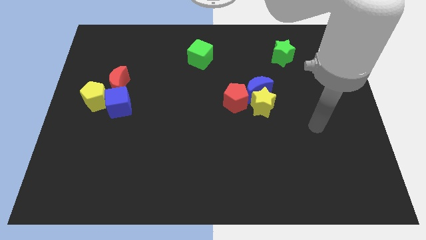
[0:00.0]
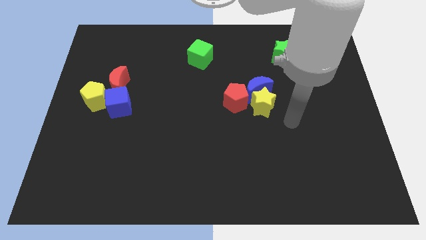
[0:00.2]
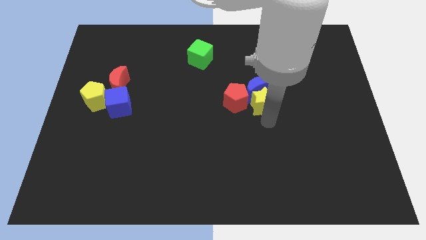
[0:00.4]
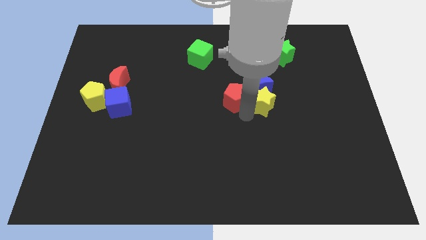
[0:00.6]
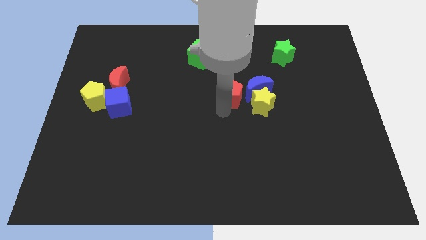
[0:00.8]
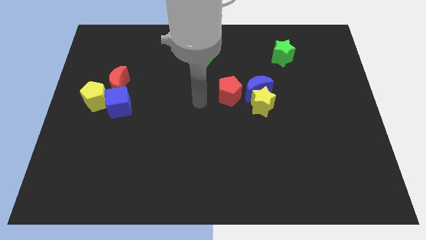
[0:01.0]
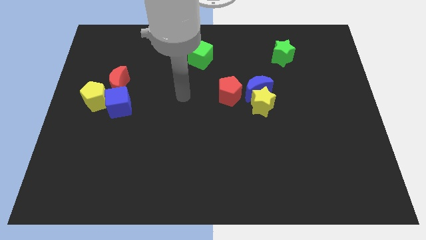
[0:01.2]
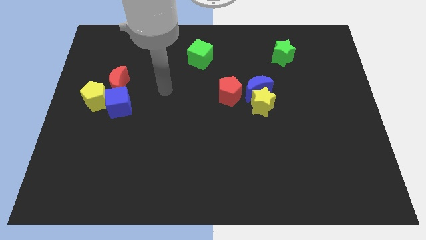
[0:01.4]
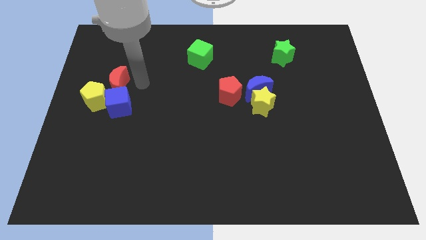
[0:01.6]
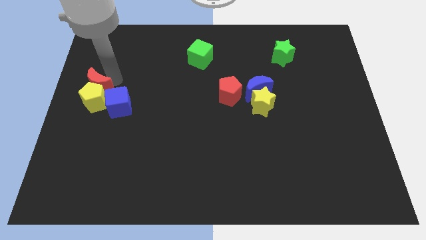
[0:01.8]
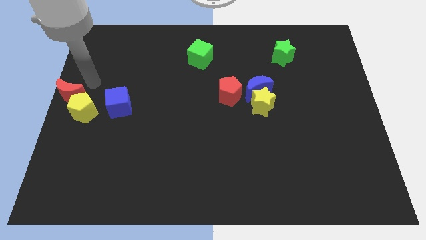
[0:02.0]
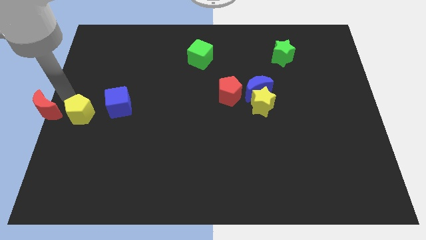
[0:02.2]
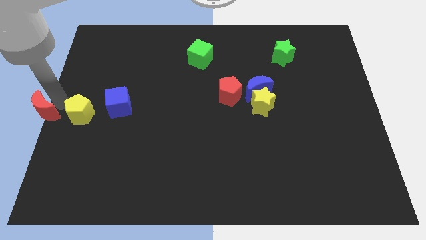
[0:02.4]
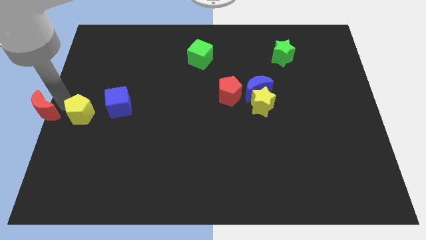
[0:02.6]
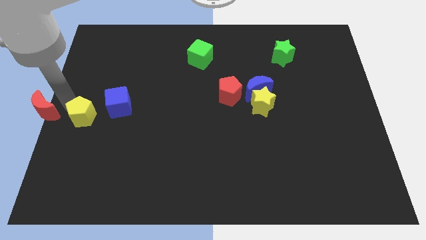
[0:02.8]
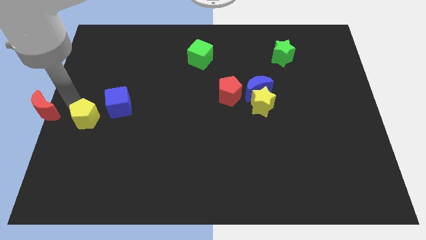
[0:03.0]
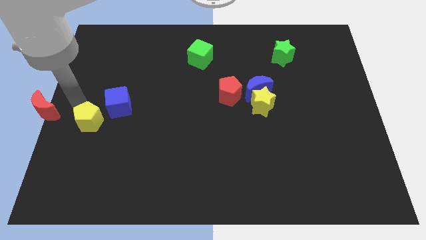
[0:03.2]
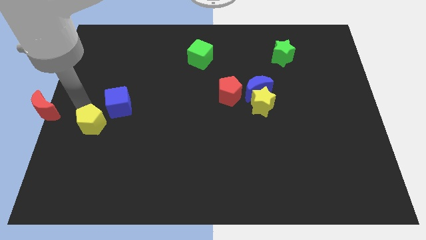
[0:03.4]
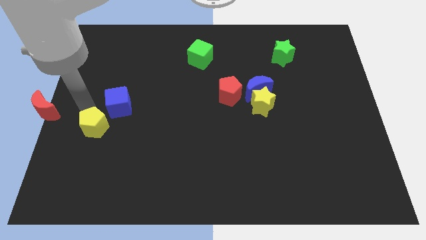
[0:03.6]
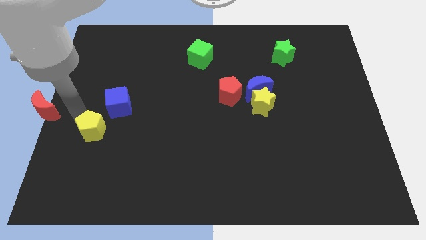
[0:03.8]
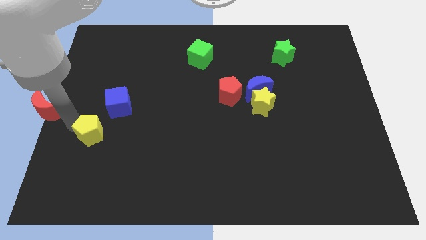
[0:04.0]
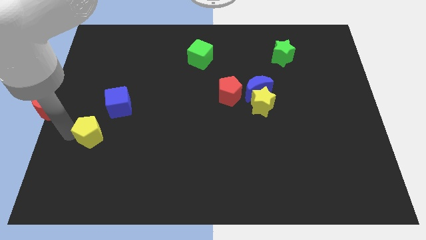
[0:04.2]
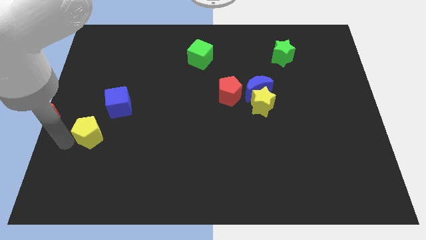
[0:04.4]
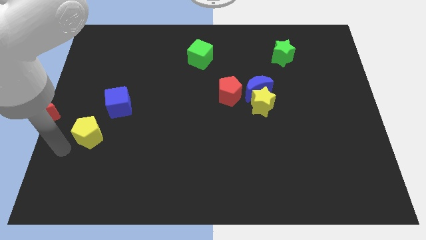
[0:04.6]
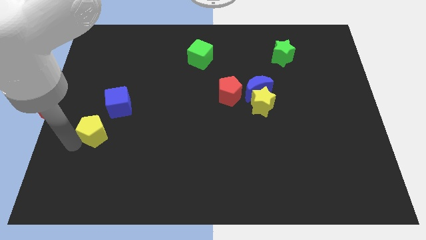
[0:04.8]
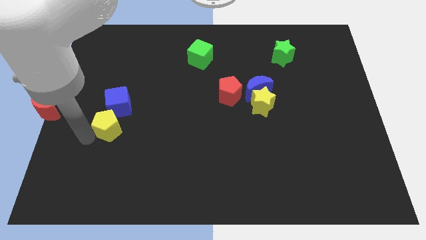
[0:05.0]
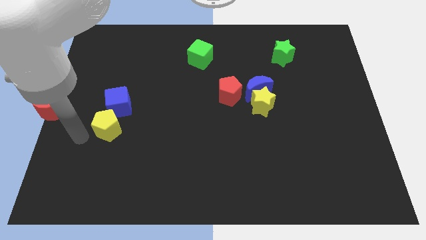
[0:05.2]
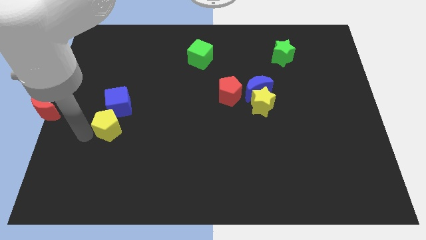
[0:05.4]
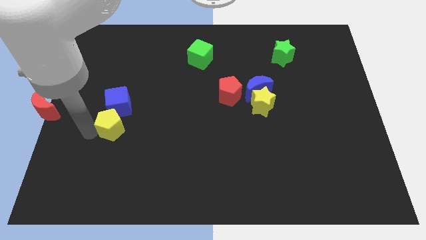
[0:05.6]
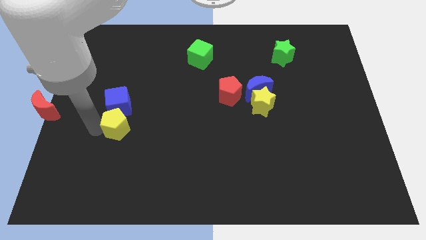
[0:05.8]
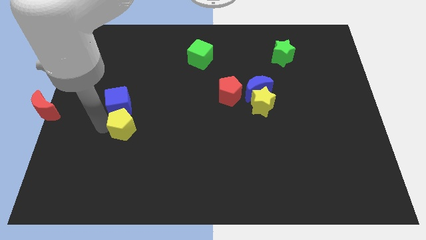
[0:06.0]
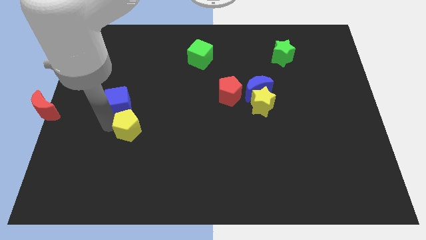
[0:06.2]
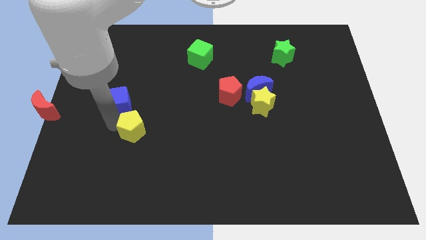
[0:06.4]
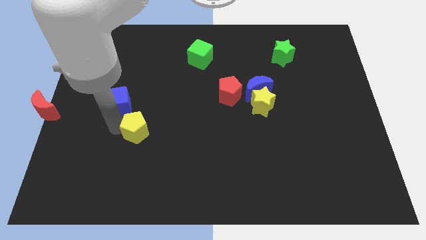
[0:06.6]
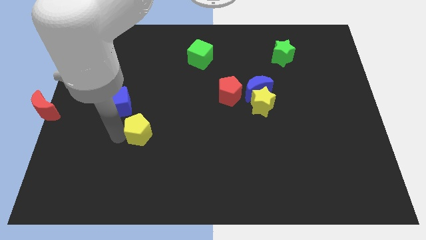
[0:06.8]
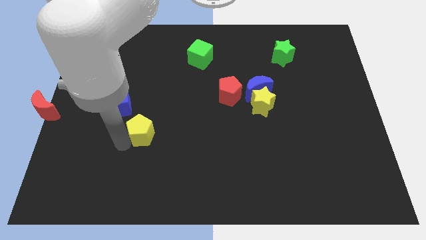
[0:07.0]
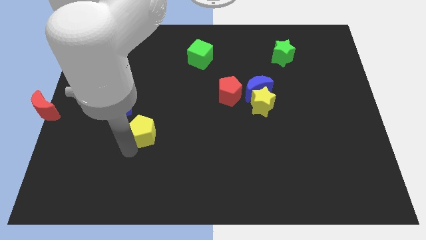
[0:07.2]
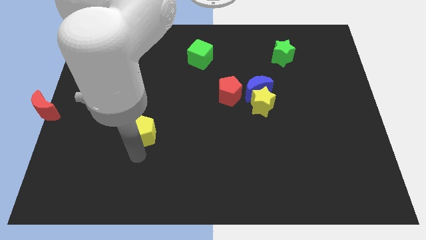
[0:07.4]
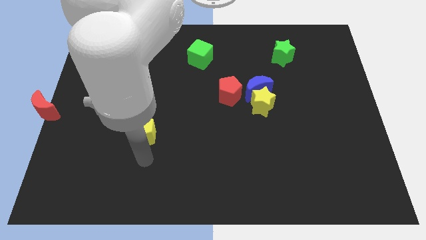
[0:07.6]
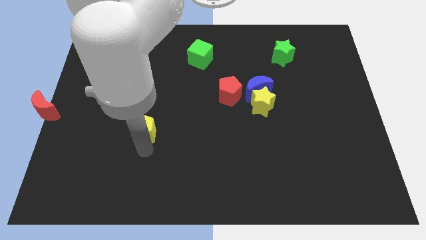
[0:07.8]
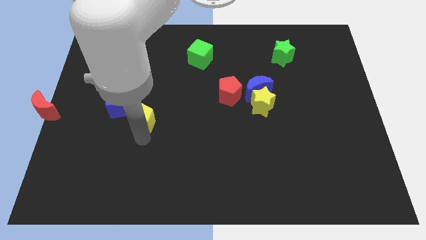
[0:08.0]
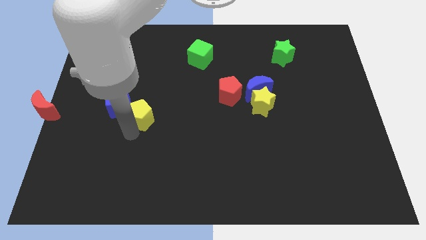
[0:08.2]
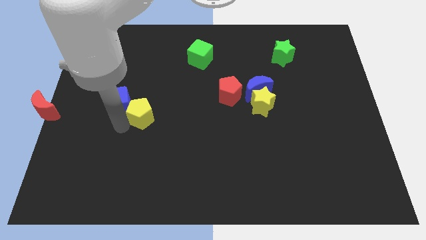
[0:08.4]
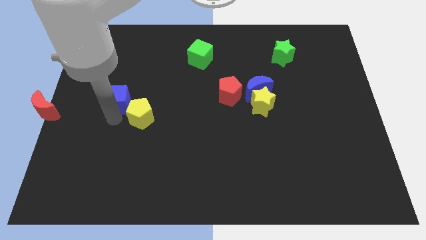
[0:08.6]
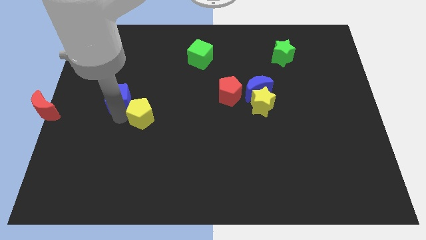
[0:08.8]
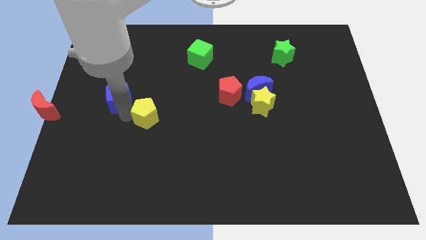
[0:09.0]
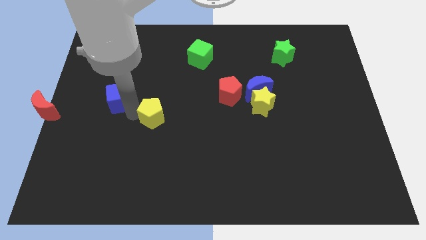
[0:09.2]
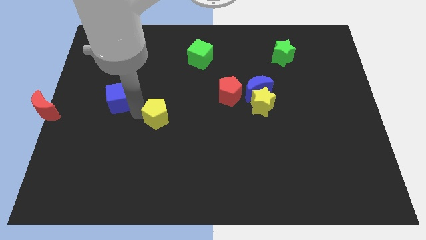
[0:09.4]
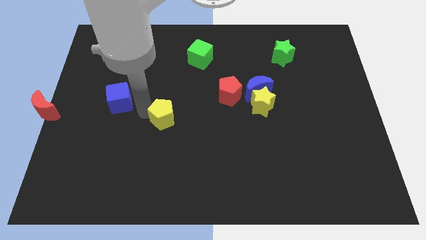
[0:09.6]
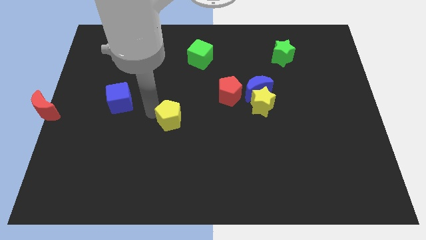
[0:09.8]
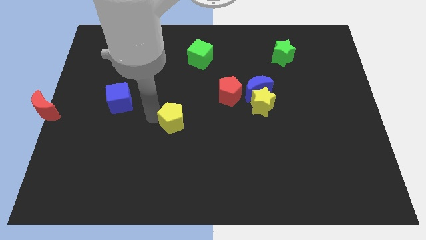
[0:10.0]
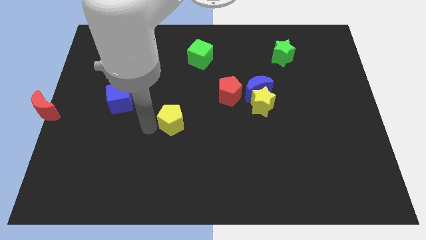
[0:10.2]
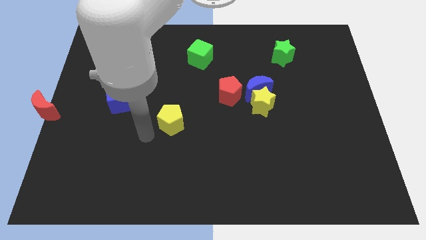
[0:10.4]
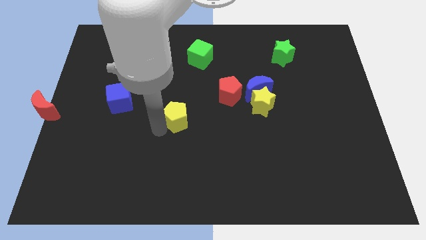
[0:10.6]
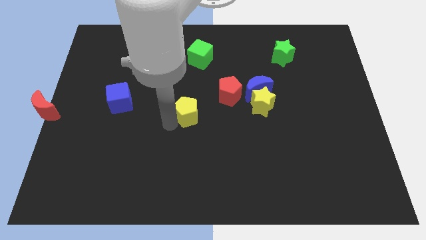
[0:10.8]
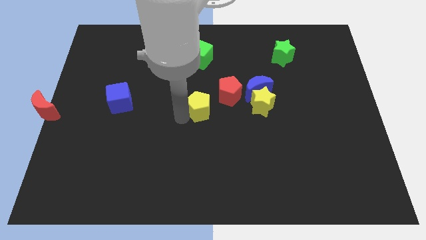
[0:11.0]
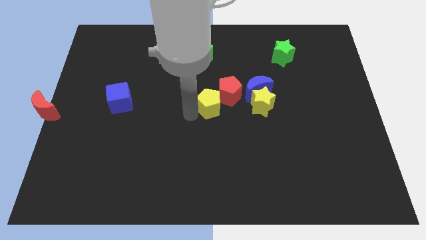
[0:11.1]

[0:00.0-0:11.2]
slide the yellow pentagon next to the red pentagon

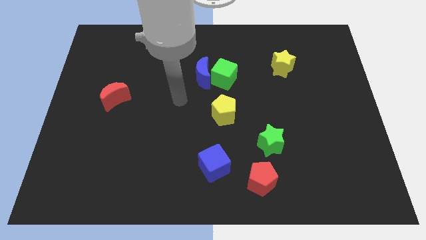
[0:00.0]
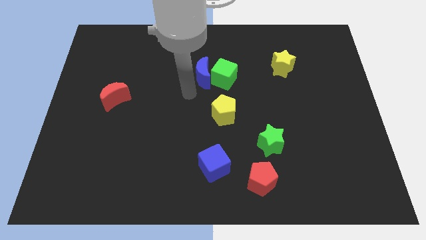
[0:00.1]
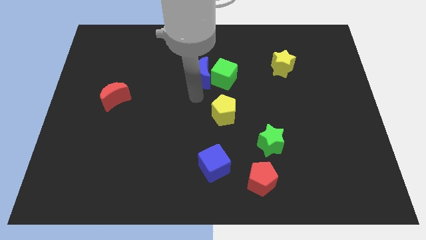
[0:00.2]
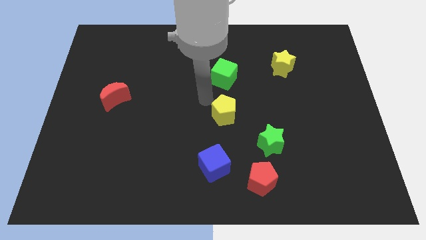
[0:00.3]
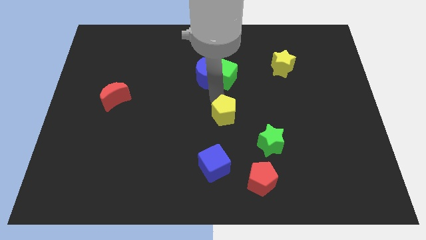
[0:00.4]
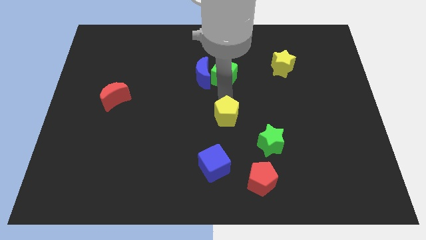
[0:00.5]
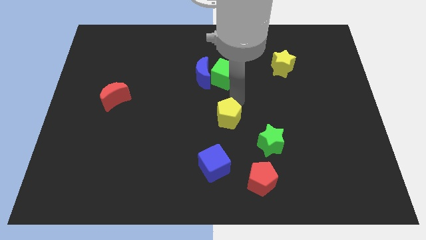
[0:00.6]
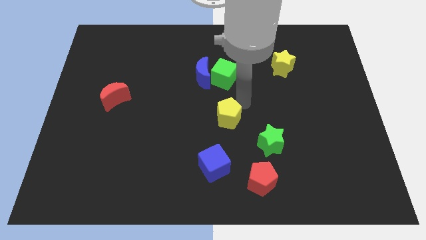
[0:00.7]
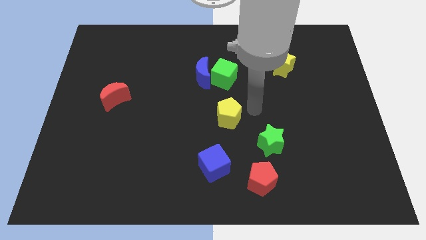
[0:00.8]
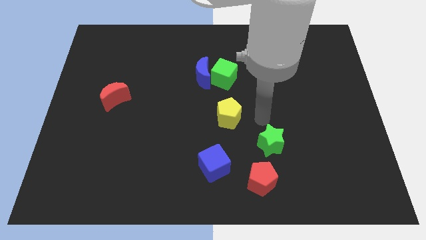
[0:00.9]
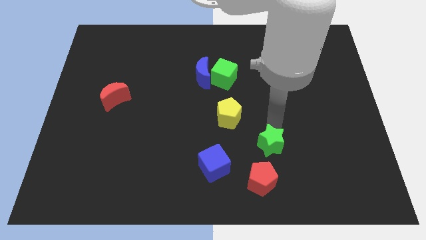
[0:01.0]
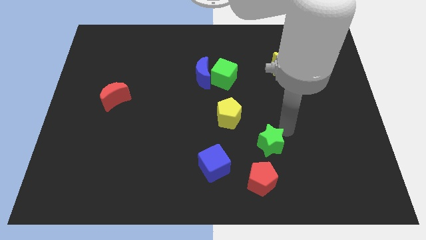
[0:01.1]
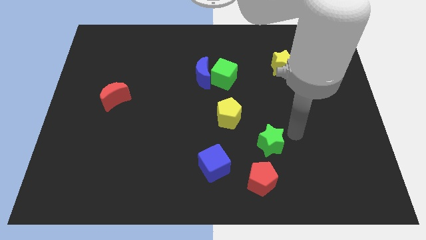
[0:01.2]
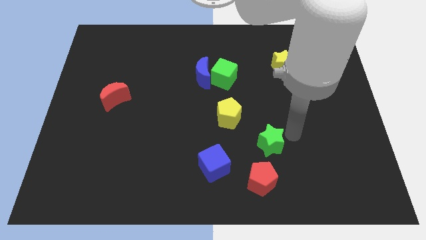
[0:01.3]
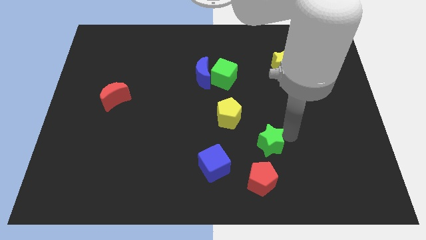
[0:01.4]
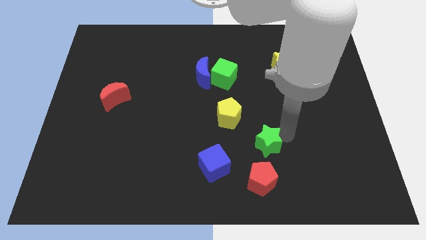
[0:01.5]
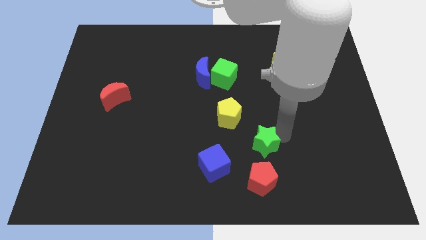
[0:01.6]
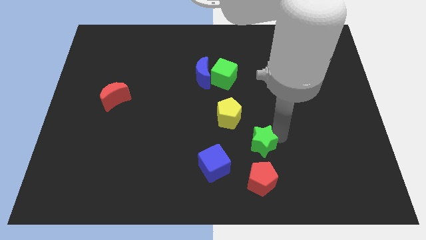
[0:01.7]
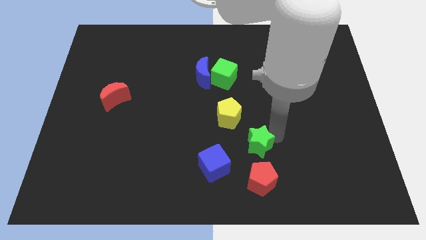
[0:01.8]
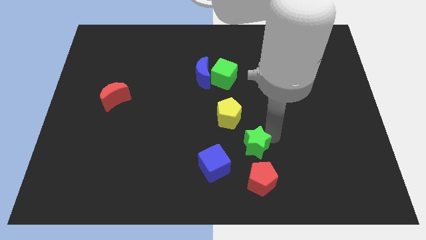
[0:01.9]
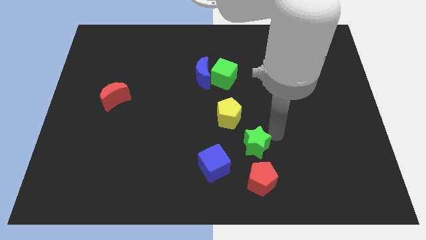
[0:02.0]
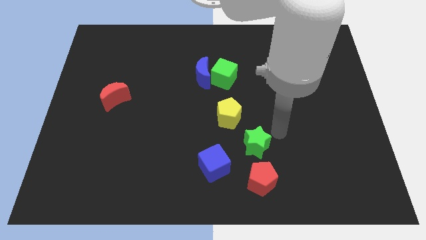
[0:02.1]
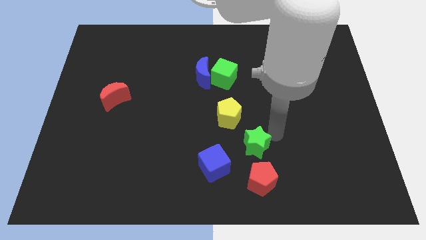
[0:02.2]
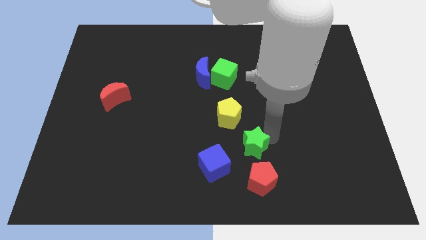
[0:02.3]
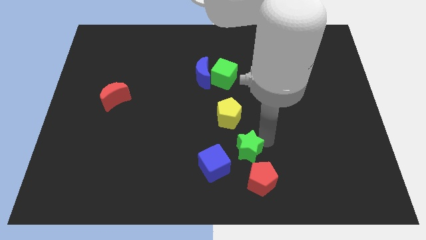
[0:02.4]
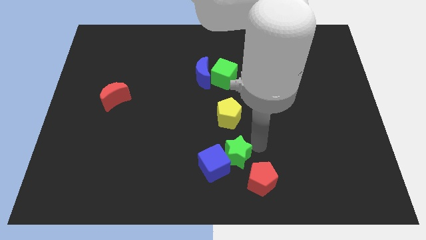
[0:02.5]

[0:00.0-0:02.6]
push the green star towards the blue cube
